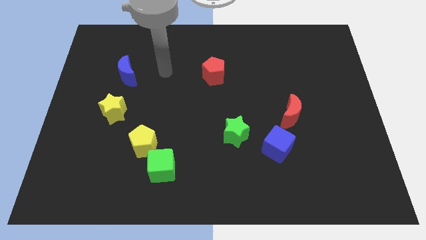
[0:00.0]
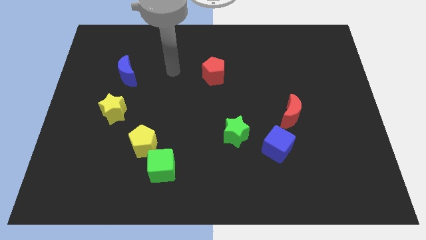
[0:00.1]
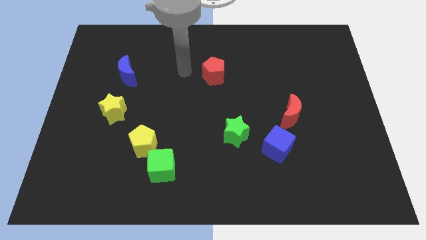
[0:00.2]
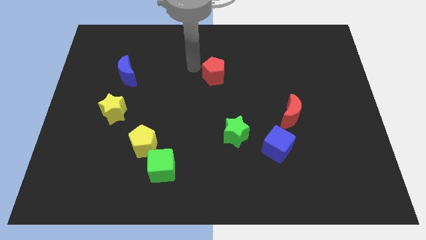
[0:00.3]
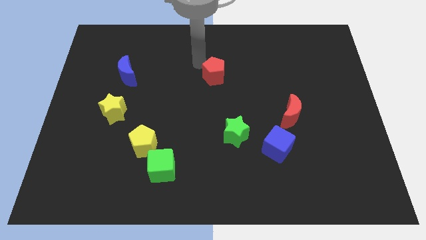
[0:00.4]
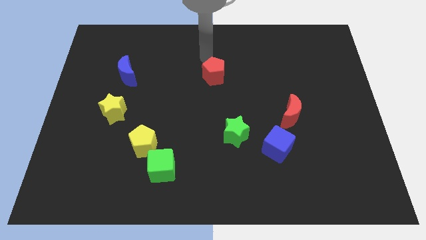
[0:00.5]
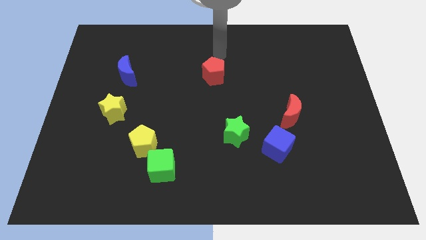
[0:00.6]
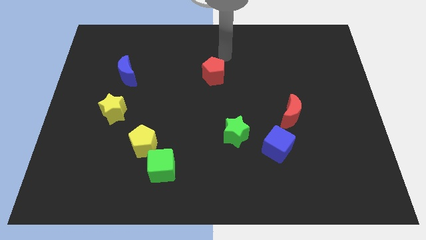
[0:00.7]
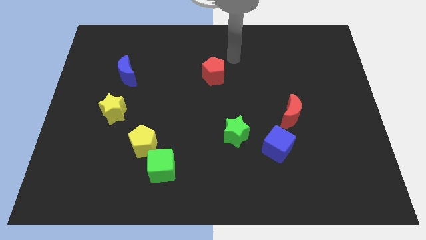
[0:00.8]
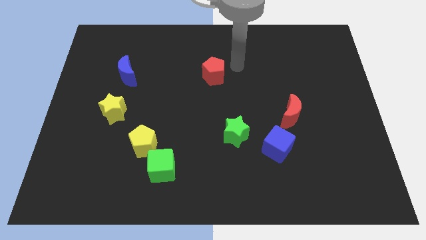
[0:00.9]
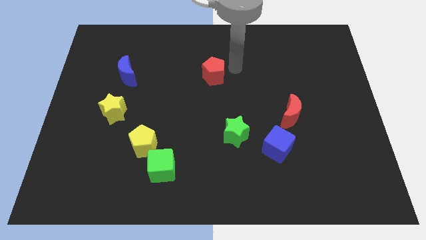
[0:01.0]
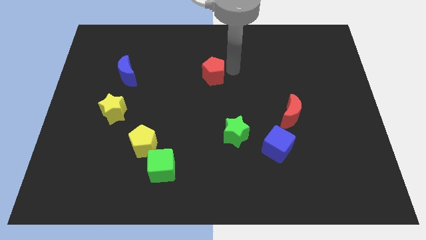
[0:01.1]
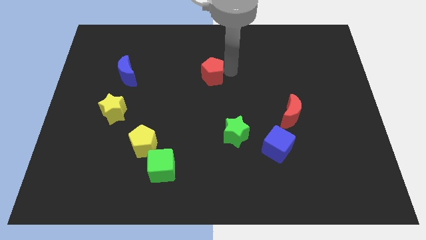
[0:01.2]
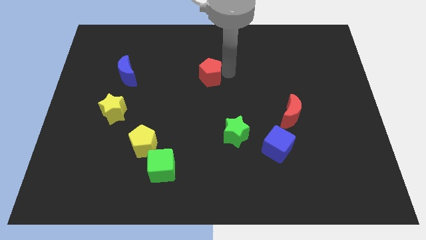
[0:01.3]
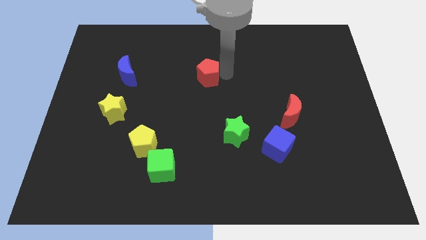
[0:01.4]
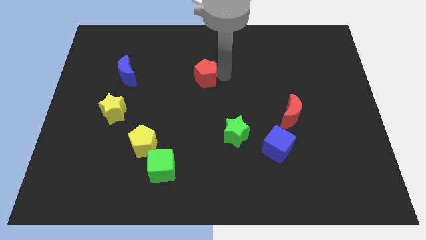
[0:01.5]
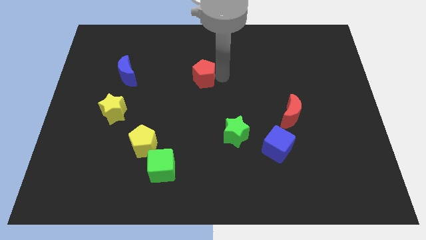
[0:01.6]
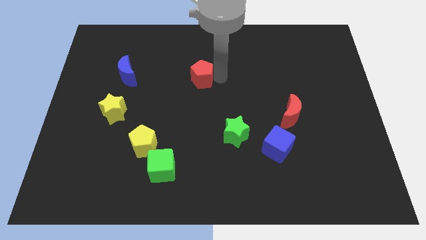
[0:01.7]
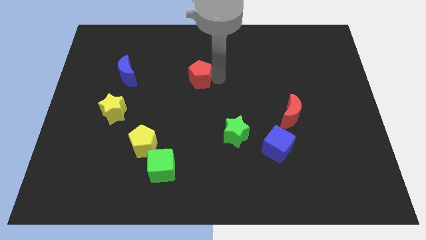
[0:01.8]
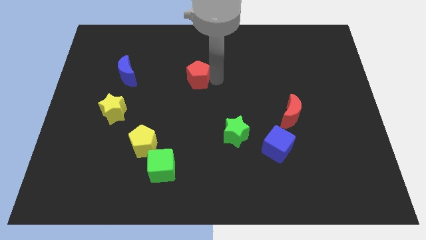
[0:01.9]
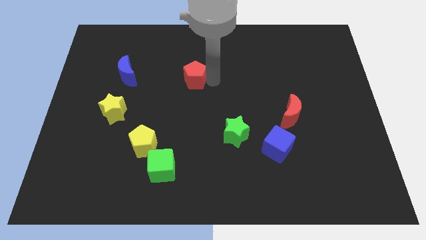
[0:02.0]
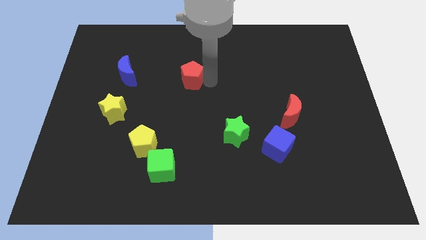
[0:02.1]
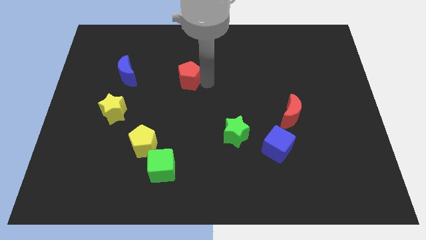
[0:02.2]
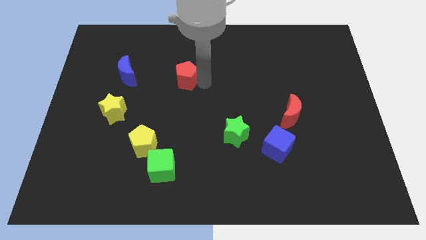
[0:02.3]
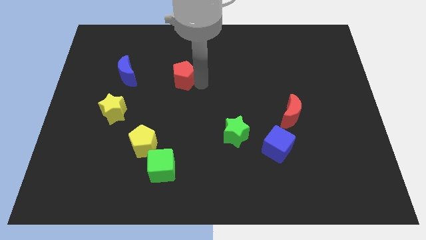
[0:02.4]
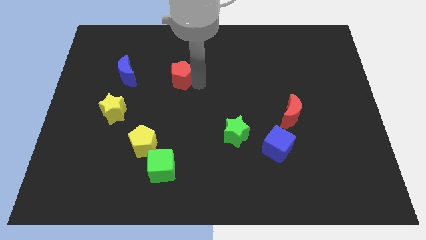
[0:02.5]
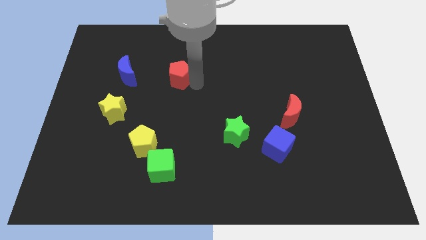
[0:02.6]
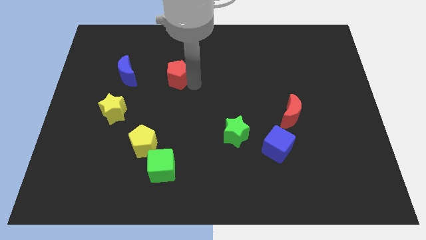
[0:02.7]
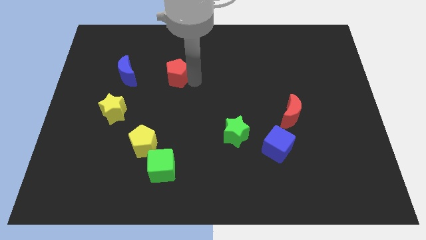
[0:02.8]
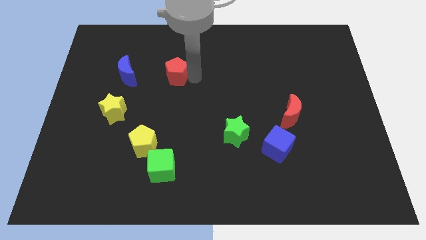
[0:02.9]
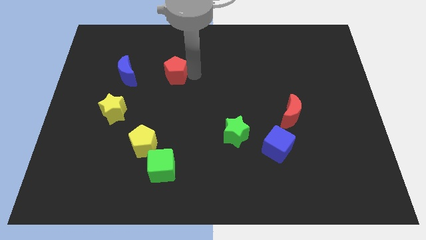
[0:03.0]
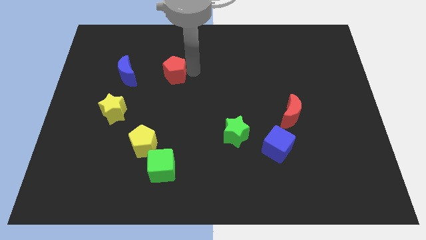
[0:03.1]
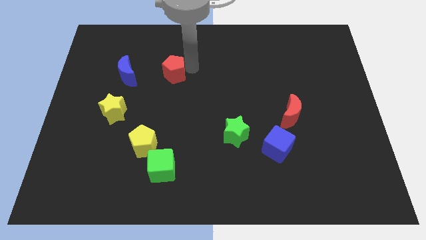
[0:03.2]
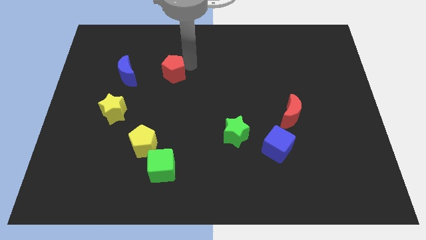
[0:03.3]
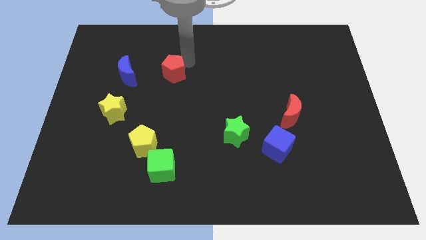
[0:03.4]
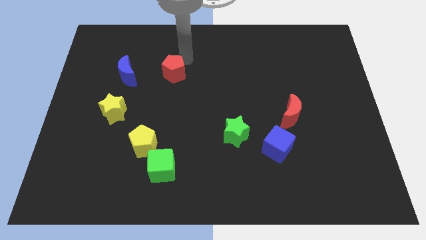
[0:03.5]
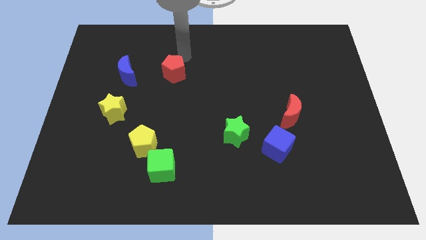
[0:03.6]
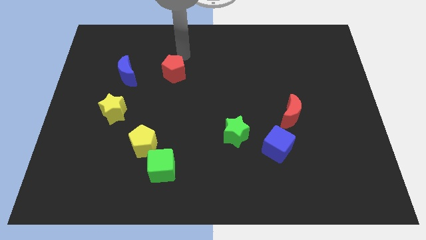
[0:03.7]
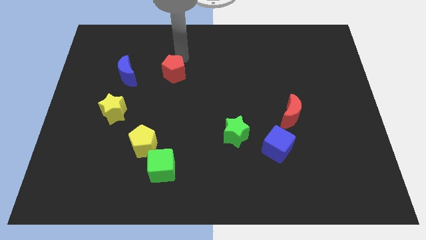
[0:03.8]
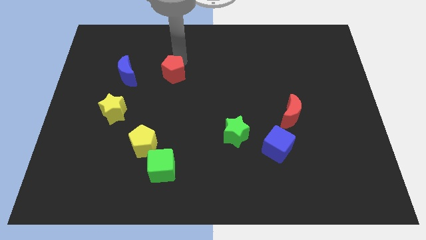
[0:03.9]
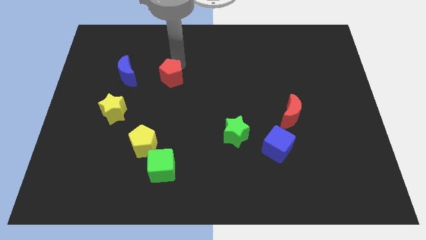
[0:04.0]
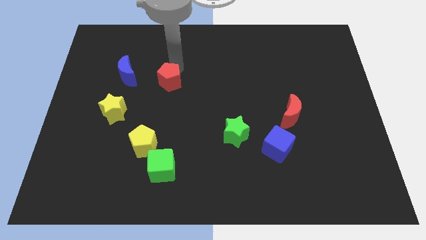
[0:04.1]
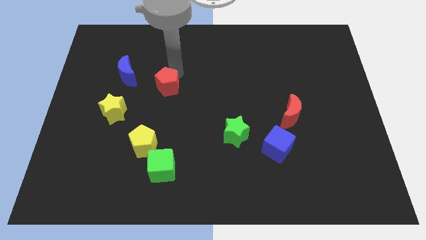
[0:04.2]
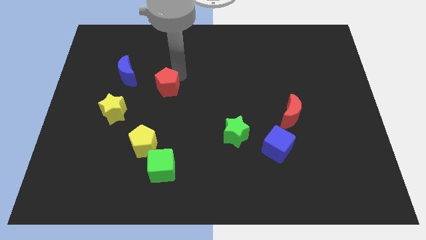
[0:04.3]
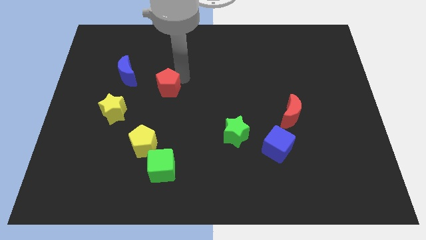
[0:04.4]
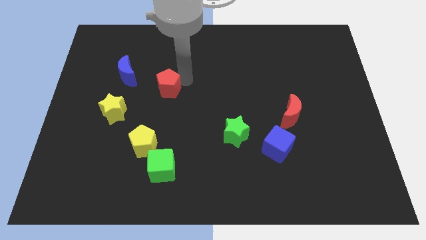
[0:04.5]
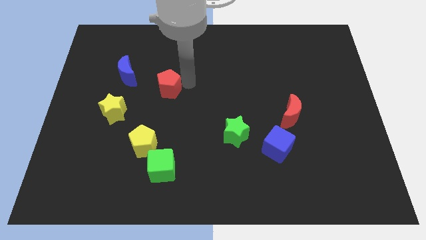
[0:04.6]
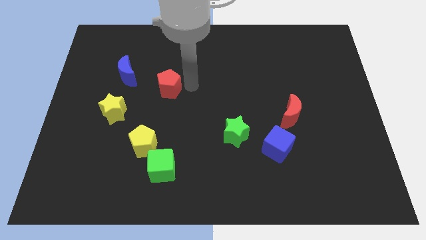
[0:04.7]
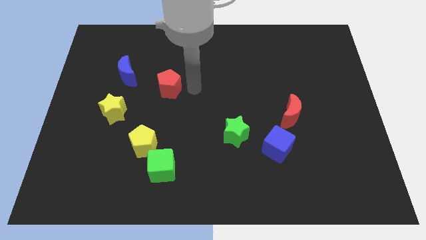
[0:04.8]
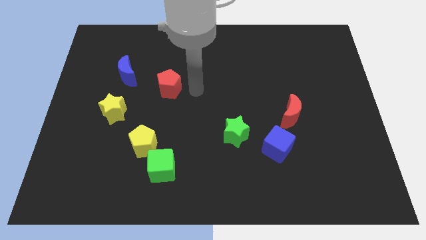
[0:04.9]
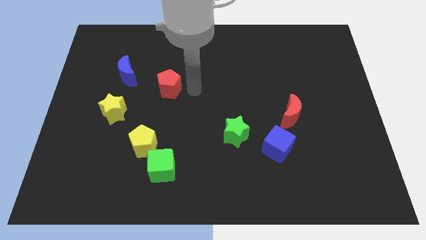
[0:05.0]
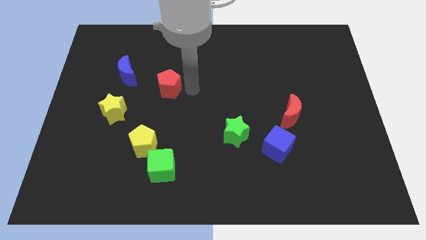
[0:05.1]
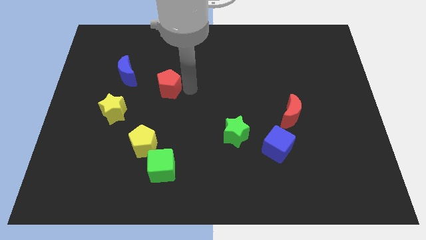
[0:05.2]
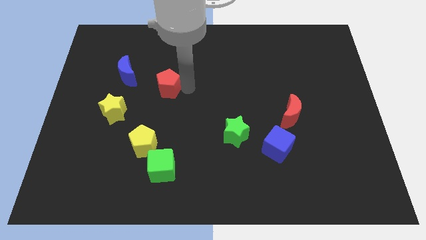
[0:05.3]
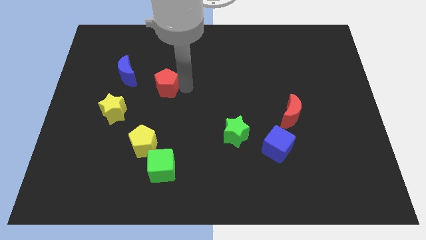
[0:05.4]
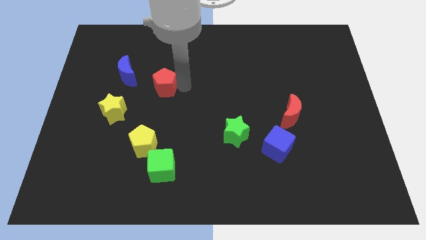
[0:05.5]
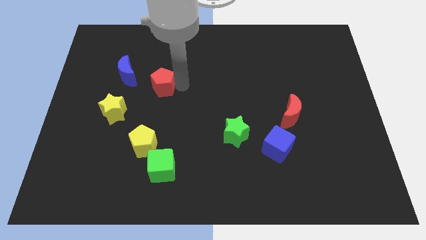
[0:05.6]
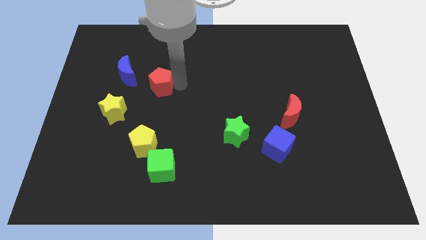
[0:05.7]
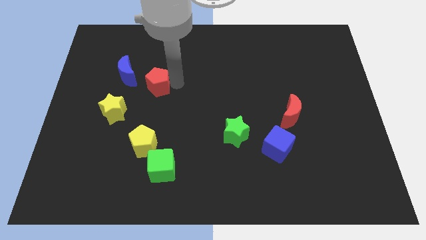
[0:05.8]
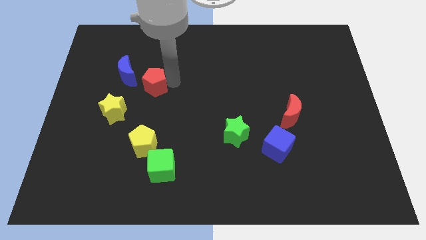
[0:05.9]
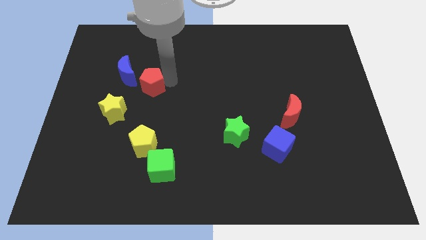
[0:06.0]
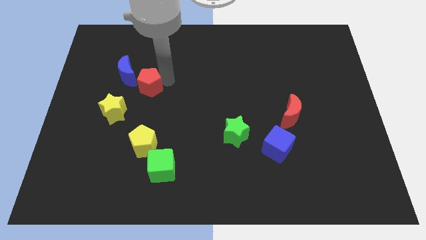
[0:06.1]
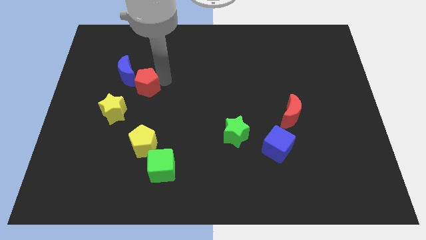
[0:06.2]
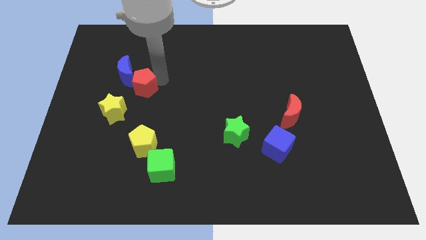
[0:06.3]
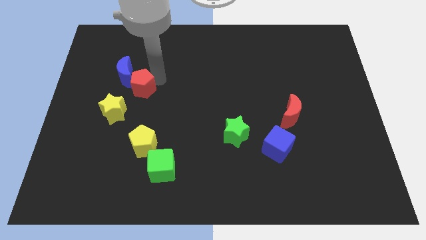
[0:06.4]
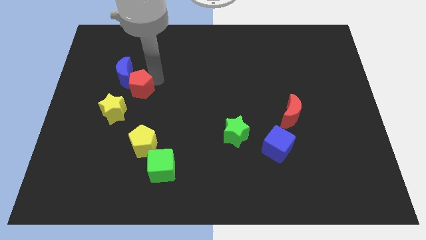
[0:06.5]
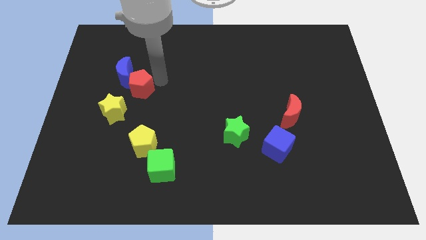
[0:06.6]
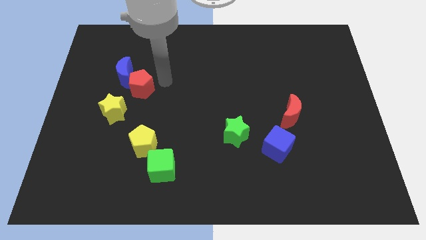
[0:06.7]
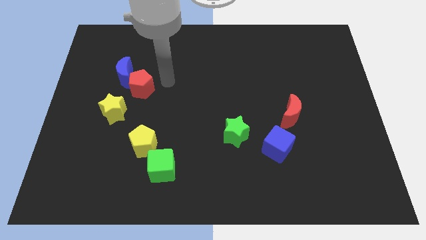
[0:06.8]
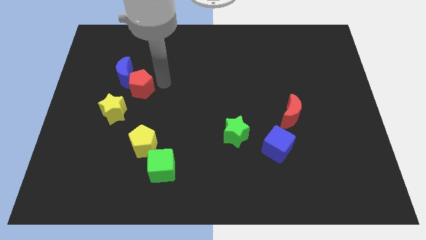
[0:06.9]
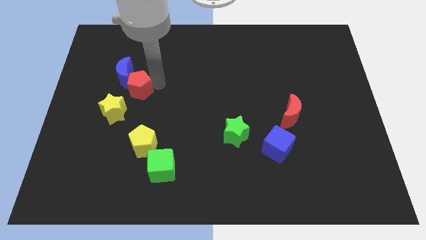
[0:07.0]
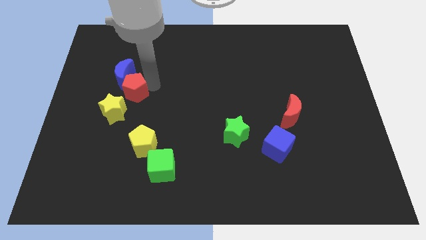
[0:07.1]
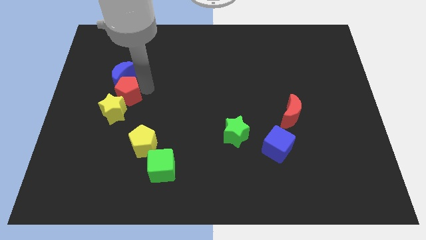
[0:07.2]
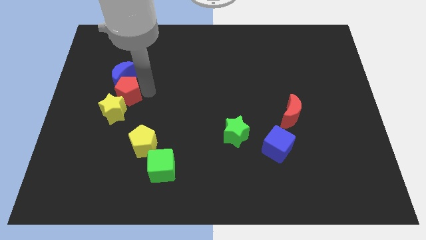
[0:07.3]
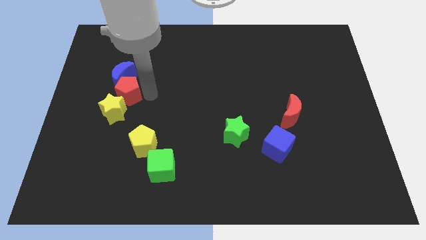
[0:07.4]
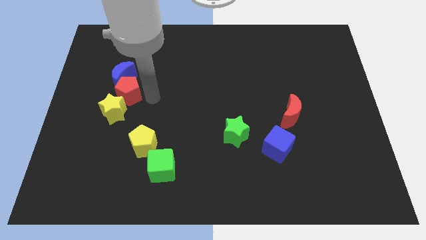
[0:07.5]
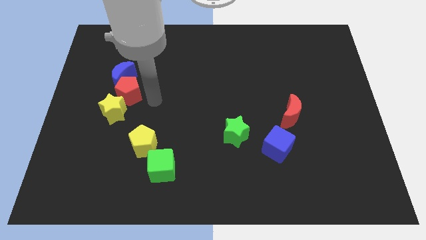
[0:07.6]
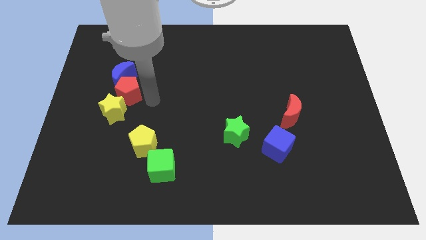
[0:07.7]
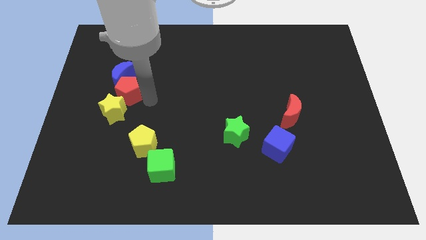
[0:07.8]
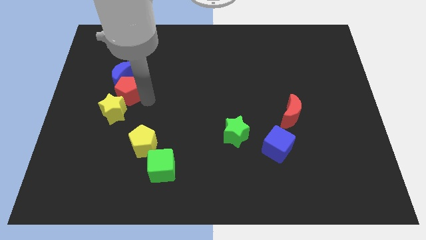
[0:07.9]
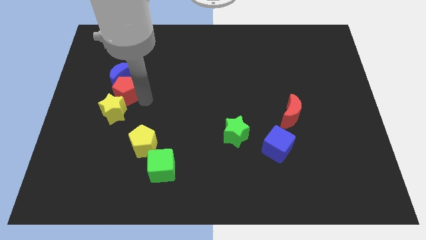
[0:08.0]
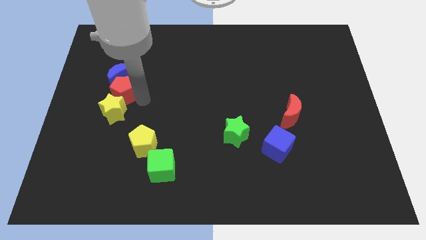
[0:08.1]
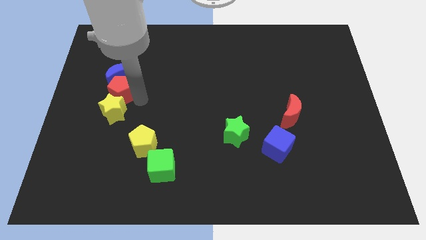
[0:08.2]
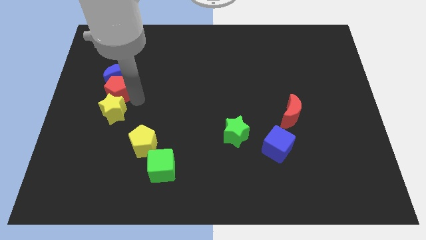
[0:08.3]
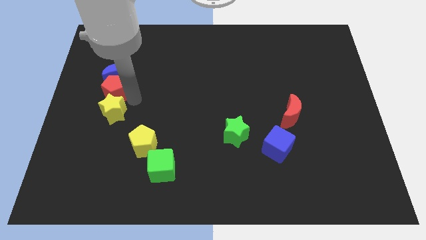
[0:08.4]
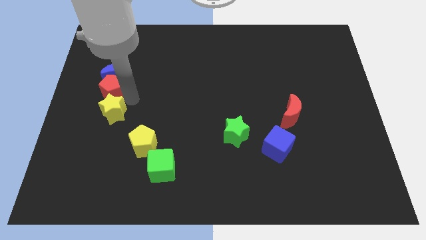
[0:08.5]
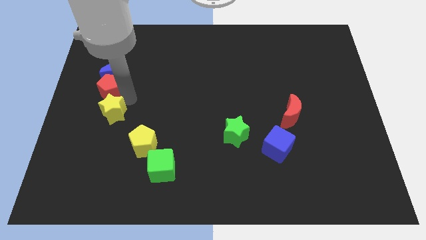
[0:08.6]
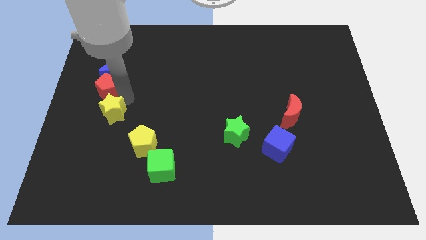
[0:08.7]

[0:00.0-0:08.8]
put the red pentagon to the center left
